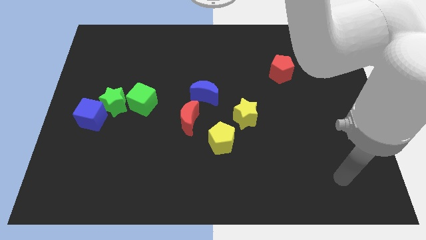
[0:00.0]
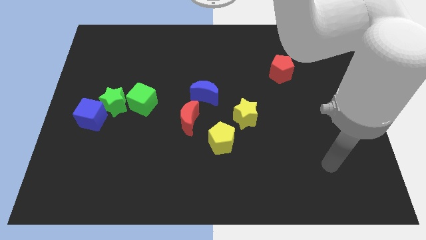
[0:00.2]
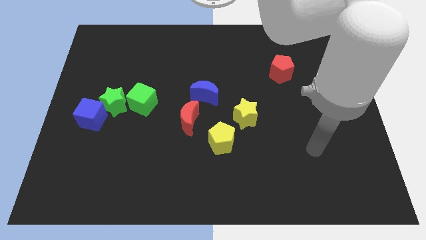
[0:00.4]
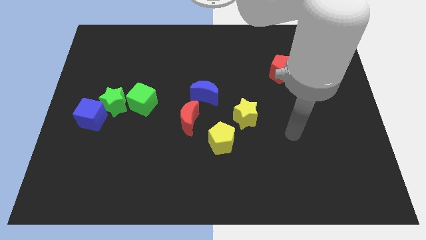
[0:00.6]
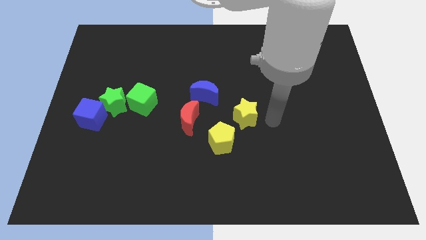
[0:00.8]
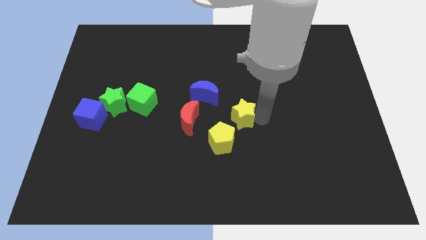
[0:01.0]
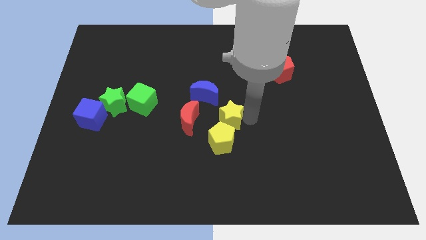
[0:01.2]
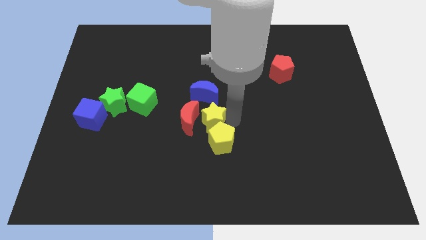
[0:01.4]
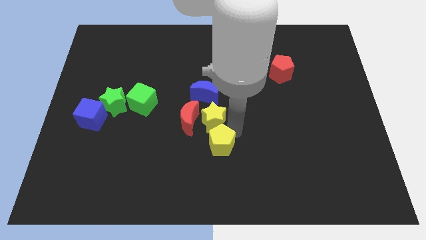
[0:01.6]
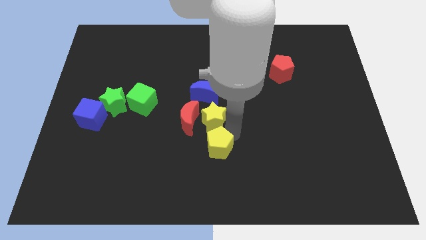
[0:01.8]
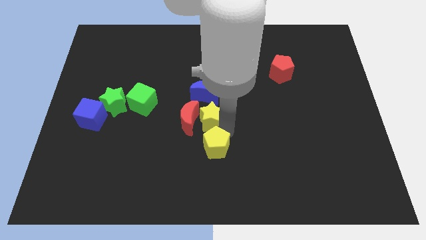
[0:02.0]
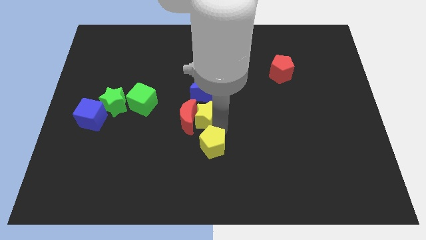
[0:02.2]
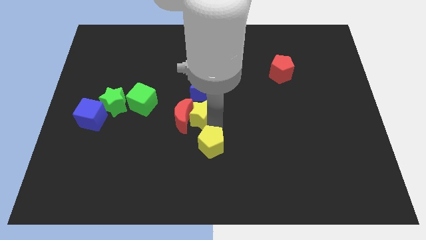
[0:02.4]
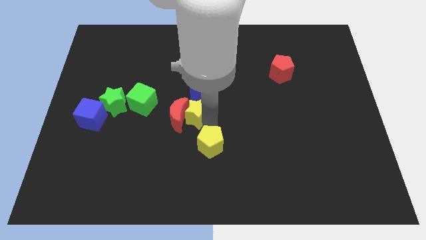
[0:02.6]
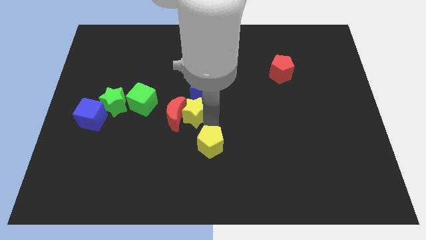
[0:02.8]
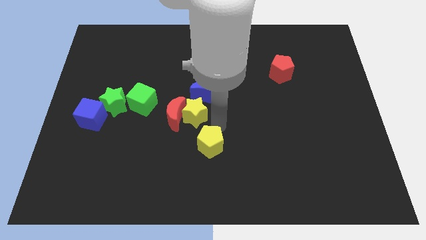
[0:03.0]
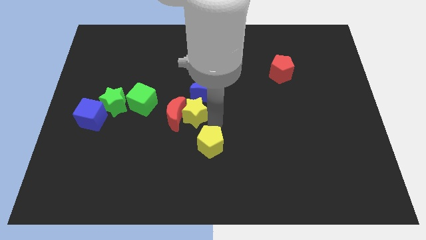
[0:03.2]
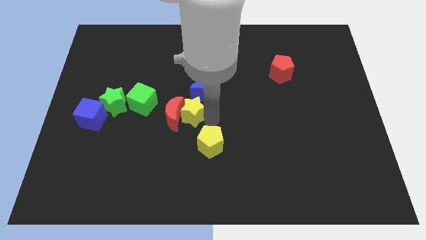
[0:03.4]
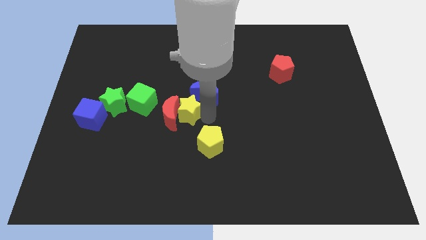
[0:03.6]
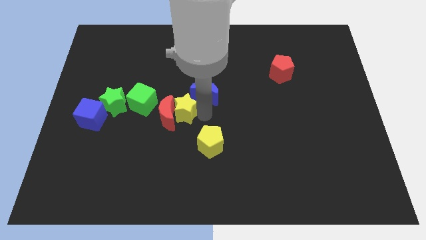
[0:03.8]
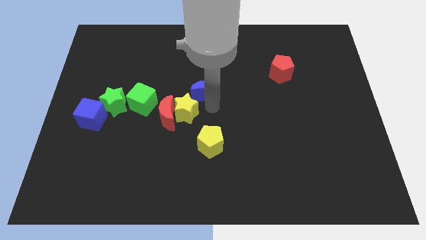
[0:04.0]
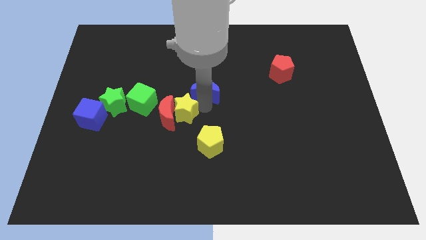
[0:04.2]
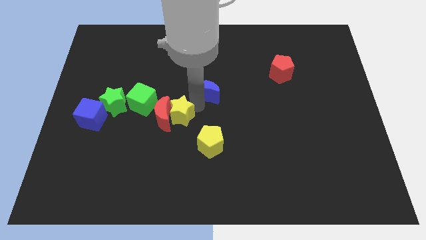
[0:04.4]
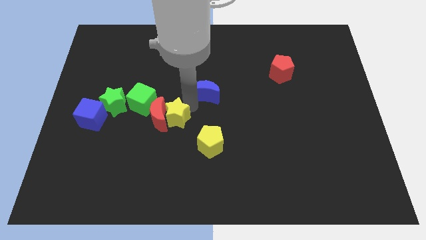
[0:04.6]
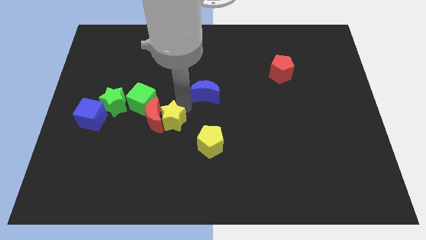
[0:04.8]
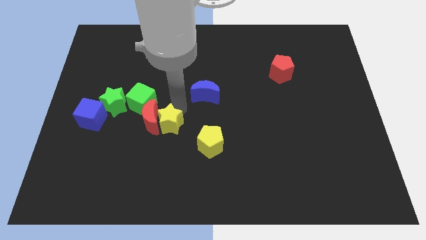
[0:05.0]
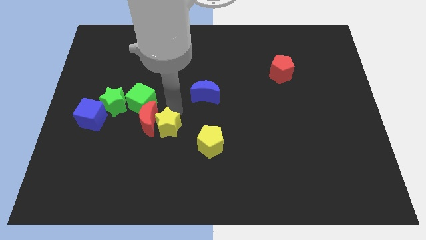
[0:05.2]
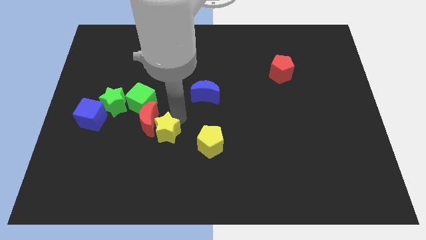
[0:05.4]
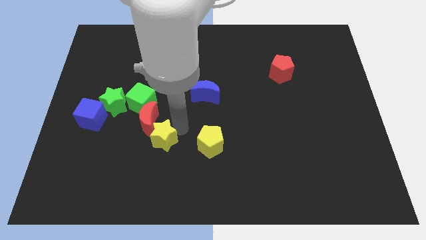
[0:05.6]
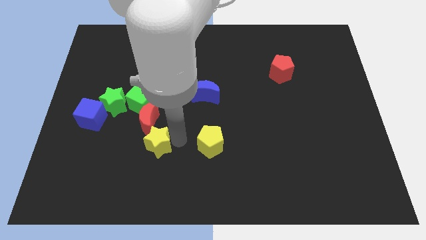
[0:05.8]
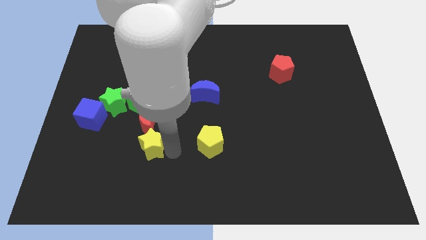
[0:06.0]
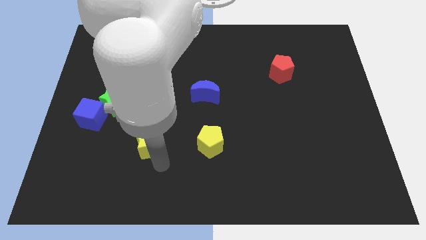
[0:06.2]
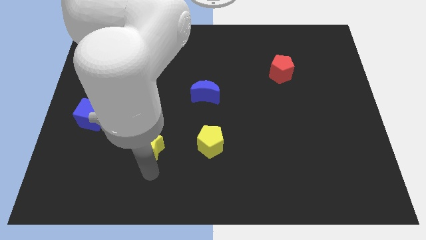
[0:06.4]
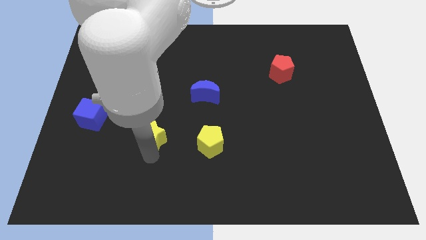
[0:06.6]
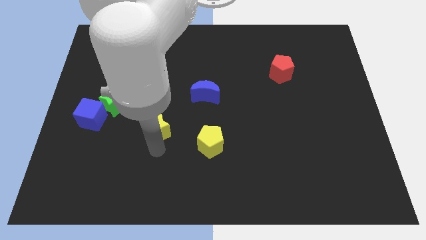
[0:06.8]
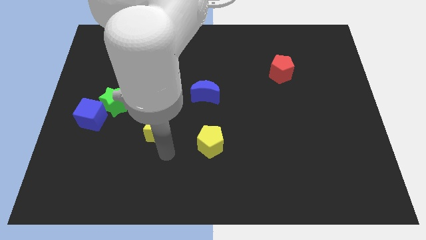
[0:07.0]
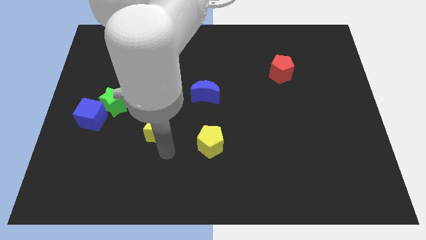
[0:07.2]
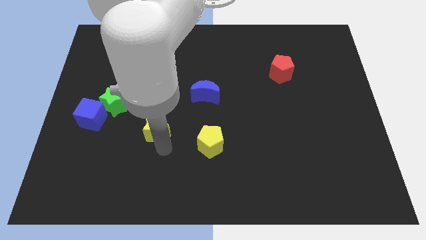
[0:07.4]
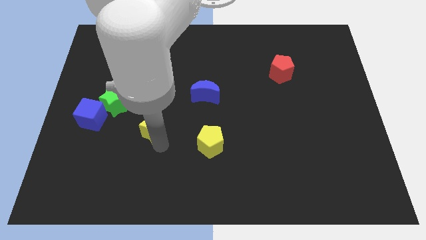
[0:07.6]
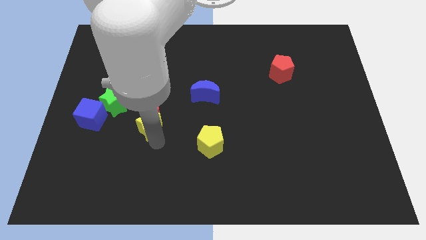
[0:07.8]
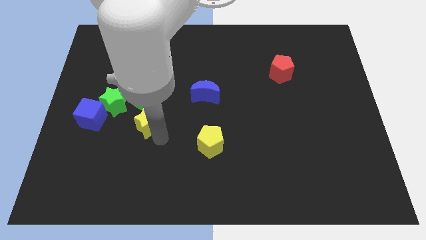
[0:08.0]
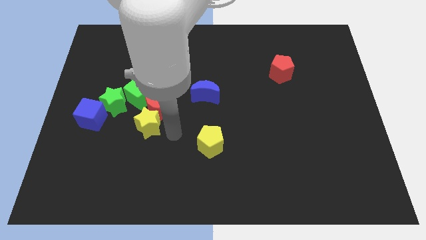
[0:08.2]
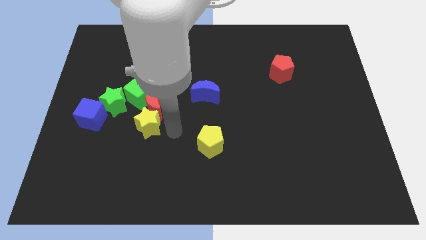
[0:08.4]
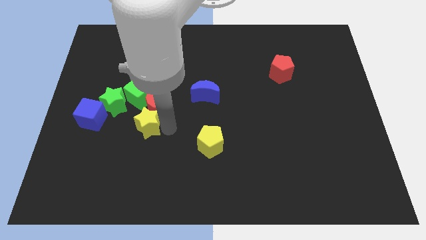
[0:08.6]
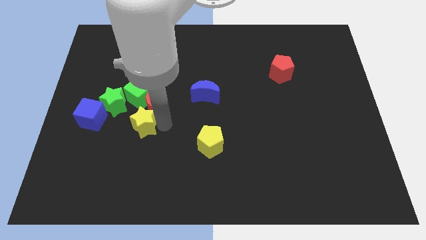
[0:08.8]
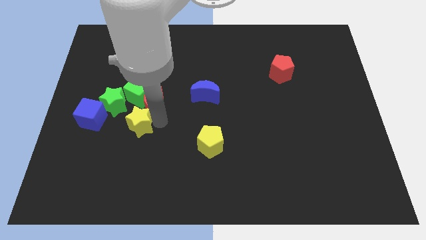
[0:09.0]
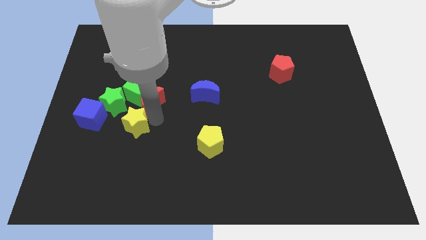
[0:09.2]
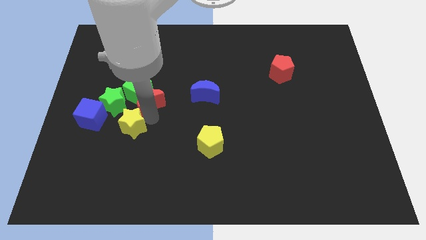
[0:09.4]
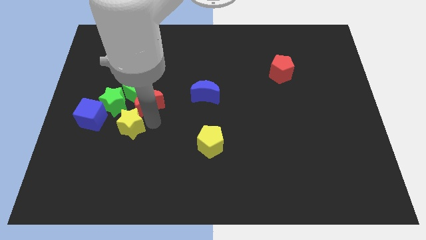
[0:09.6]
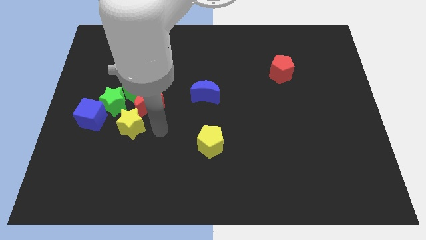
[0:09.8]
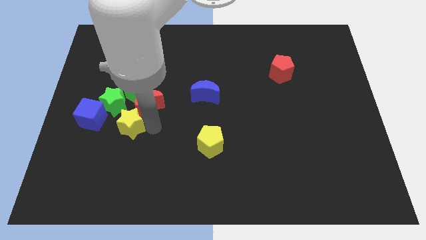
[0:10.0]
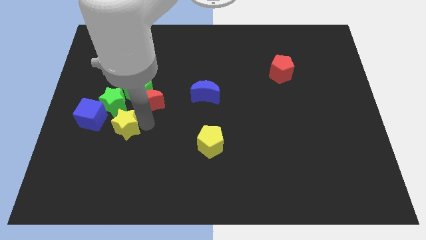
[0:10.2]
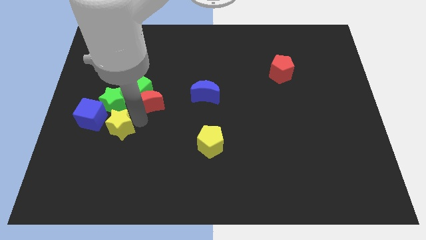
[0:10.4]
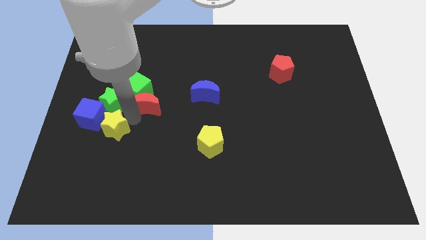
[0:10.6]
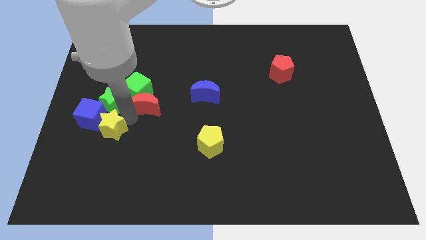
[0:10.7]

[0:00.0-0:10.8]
push the yellow star close to the blue cube

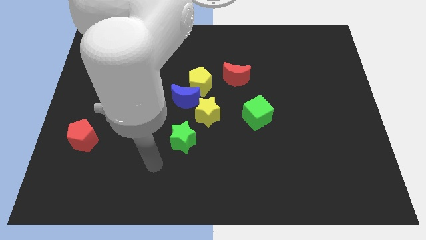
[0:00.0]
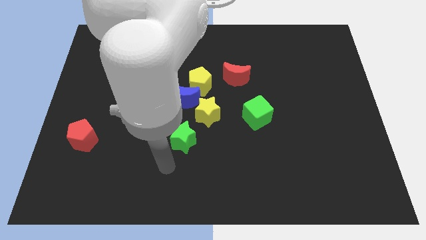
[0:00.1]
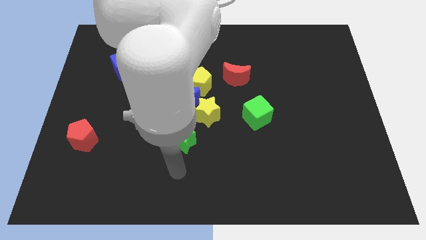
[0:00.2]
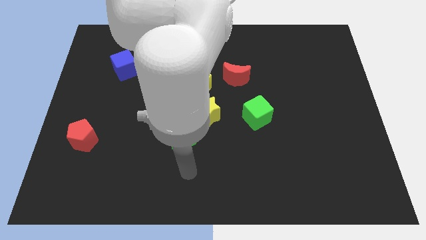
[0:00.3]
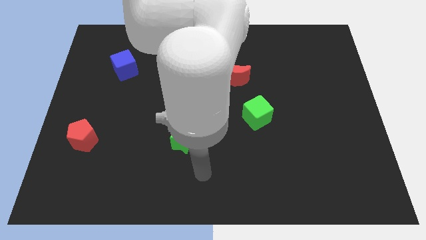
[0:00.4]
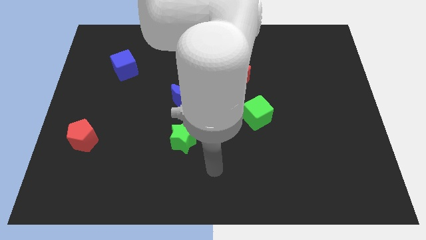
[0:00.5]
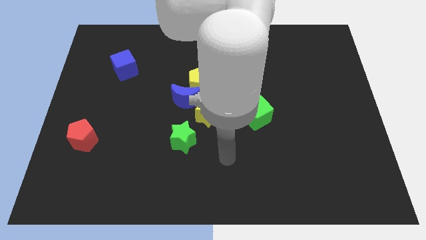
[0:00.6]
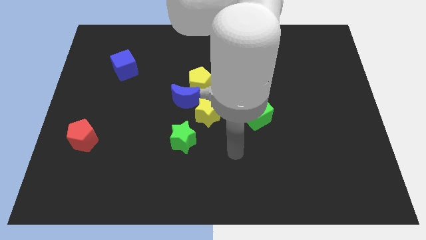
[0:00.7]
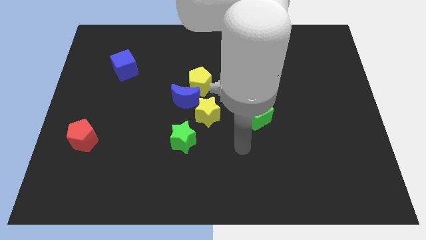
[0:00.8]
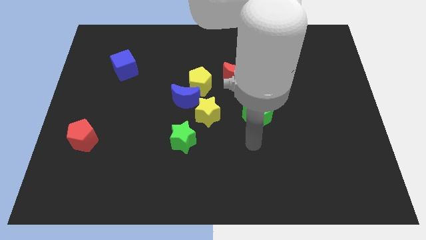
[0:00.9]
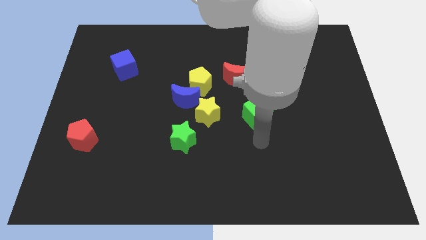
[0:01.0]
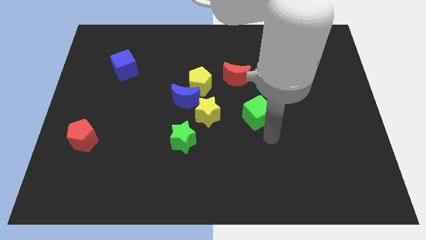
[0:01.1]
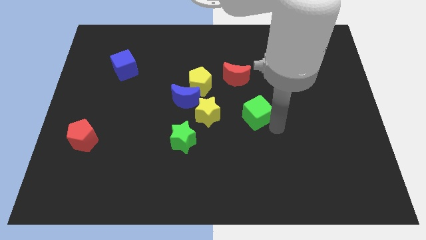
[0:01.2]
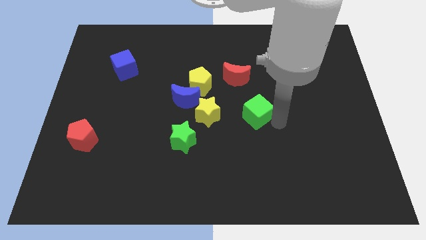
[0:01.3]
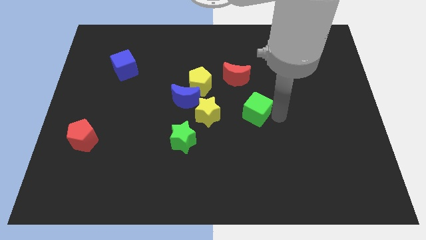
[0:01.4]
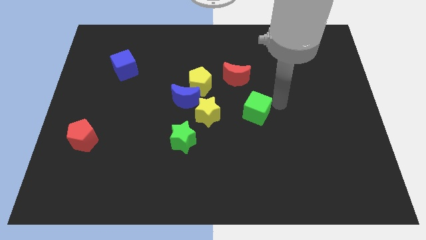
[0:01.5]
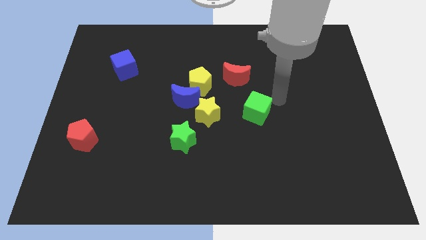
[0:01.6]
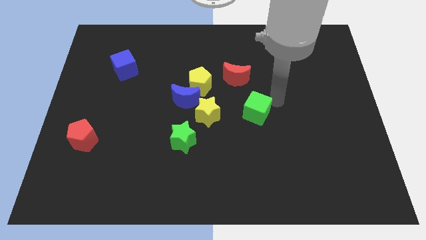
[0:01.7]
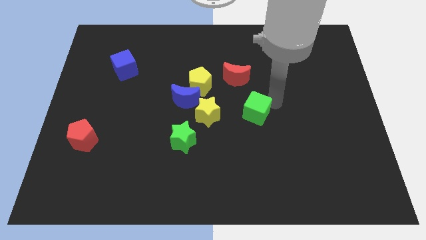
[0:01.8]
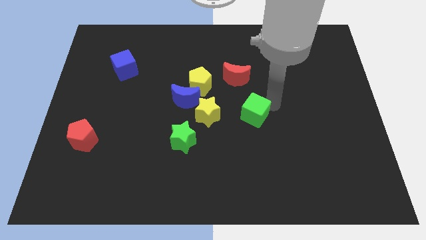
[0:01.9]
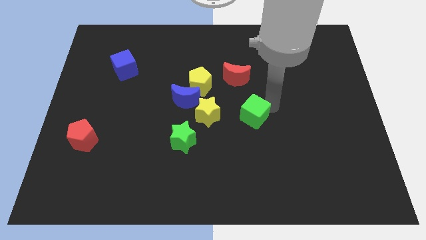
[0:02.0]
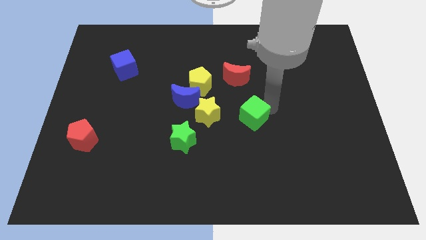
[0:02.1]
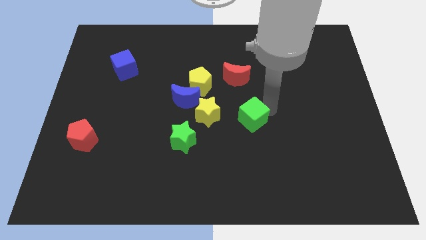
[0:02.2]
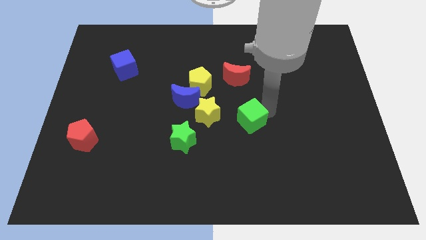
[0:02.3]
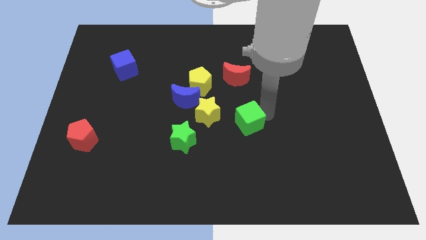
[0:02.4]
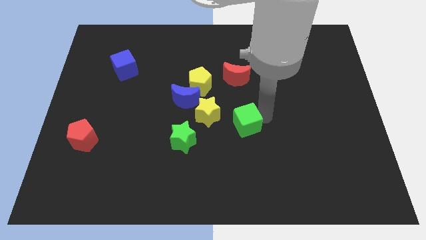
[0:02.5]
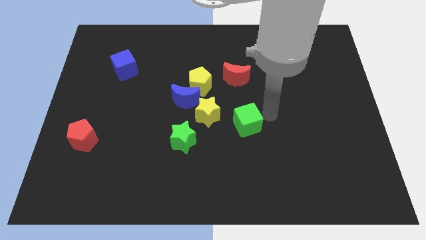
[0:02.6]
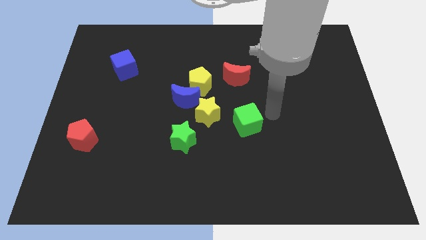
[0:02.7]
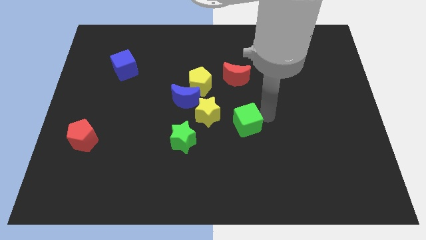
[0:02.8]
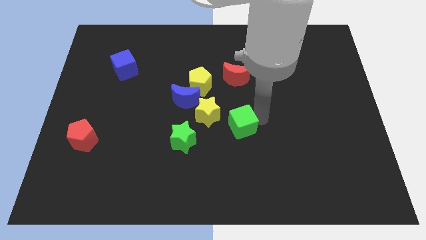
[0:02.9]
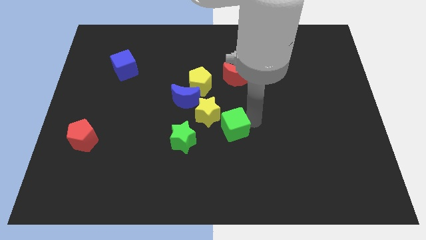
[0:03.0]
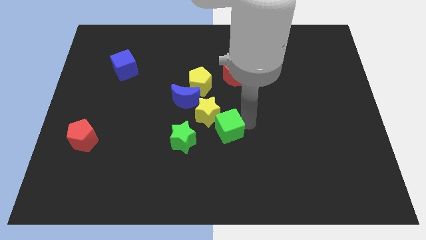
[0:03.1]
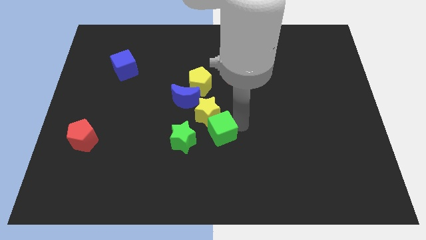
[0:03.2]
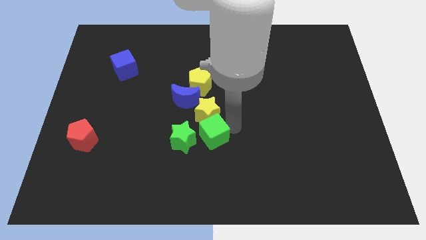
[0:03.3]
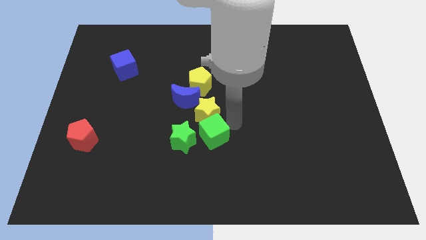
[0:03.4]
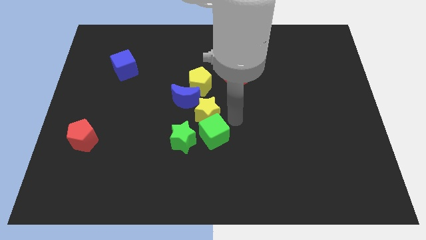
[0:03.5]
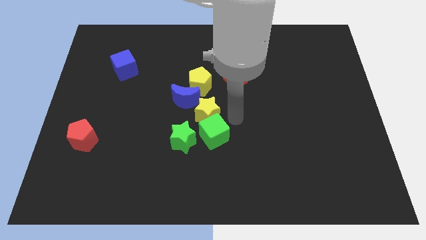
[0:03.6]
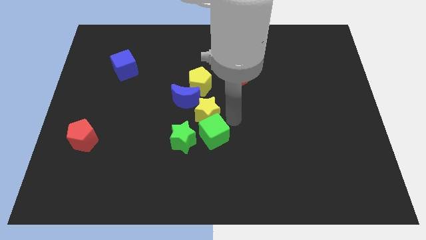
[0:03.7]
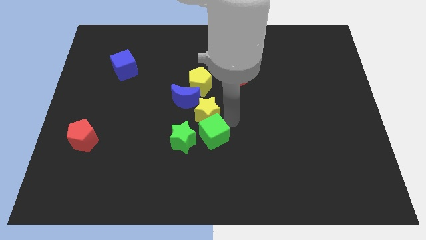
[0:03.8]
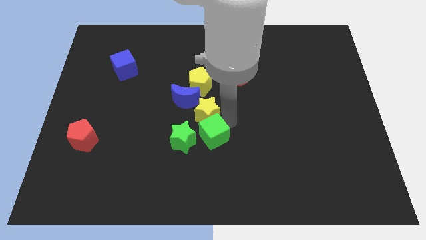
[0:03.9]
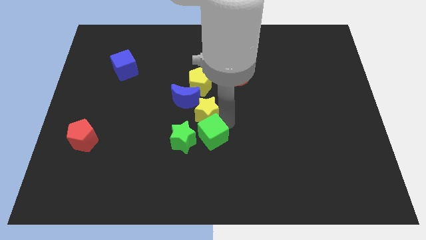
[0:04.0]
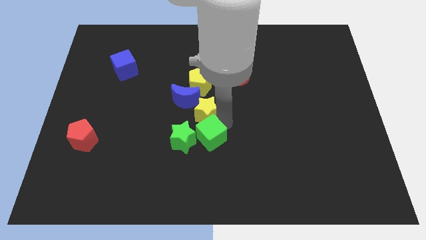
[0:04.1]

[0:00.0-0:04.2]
put the green cube to the green star
